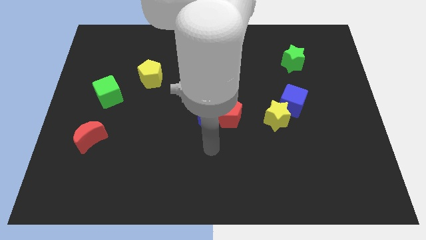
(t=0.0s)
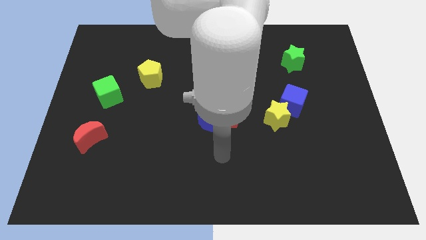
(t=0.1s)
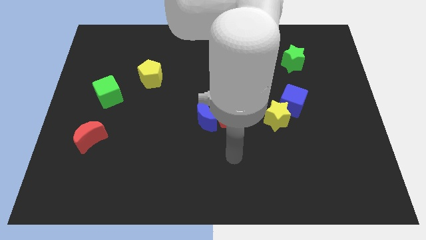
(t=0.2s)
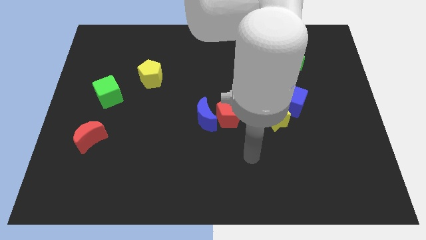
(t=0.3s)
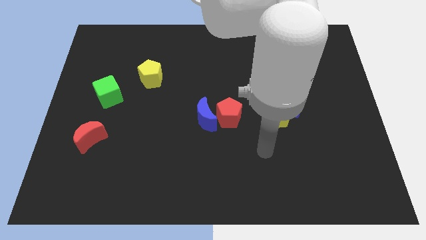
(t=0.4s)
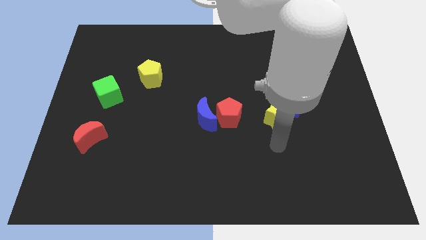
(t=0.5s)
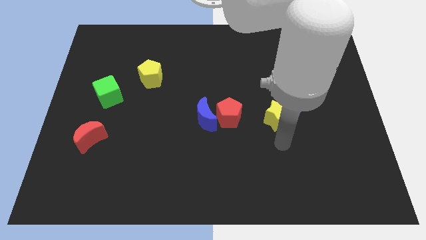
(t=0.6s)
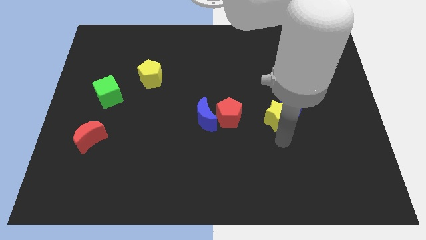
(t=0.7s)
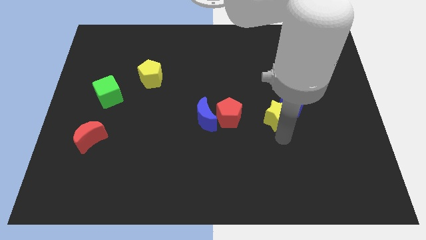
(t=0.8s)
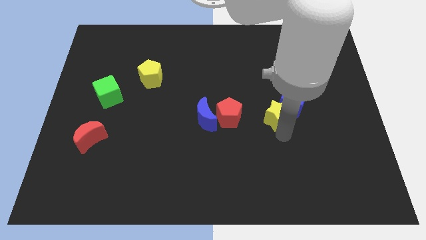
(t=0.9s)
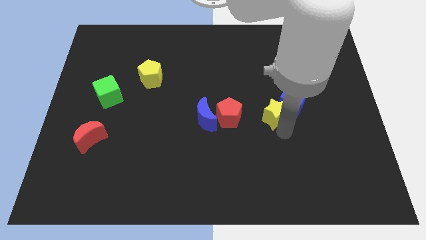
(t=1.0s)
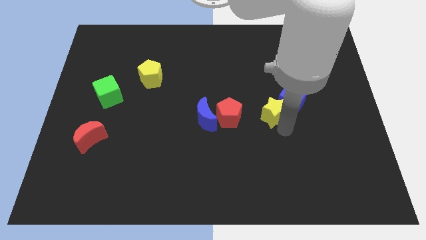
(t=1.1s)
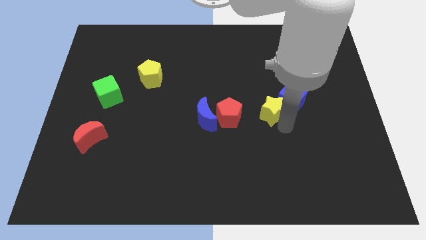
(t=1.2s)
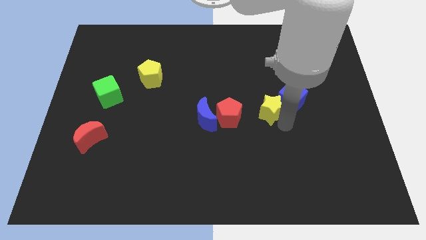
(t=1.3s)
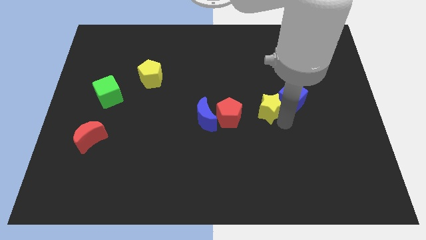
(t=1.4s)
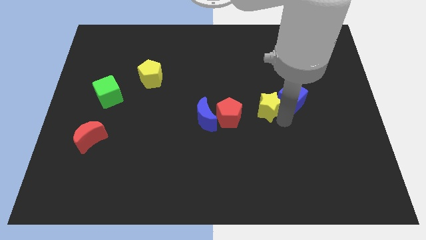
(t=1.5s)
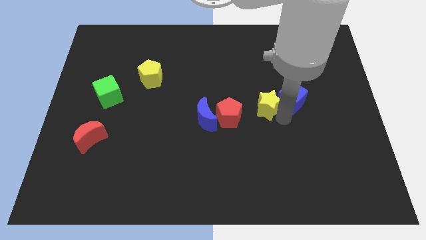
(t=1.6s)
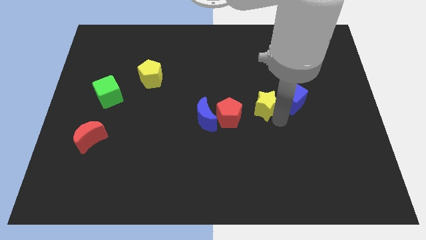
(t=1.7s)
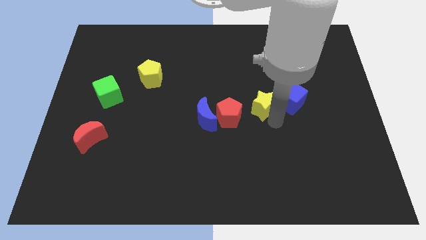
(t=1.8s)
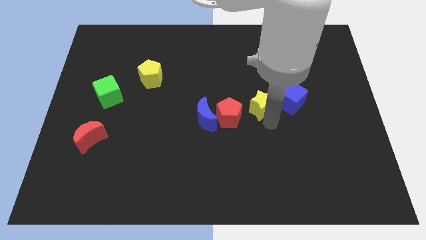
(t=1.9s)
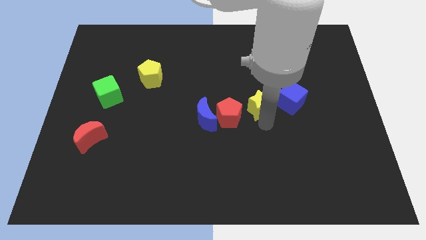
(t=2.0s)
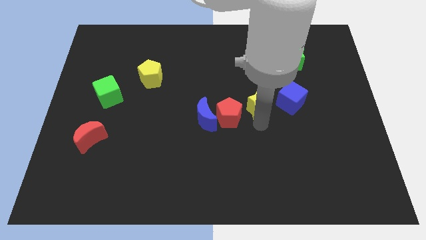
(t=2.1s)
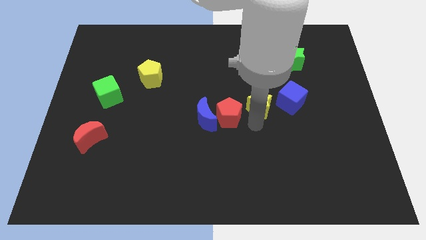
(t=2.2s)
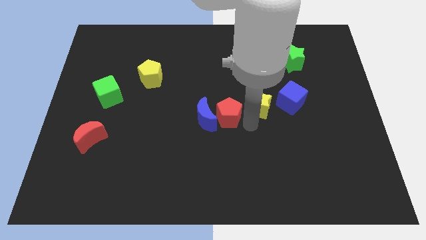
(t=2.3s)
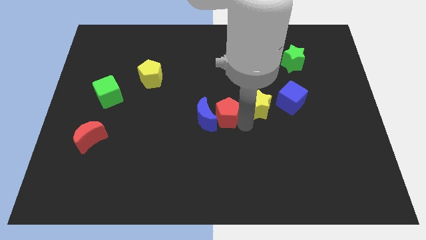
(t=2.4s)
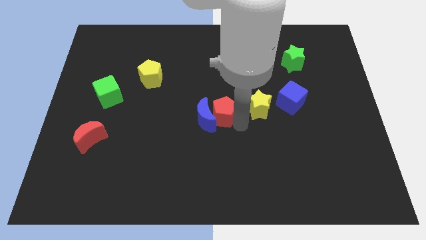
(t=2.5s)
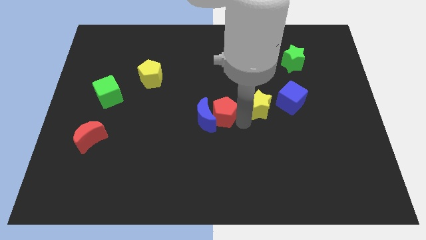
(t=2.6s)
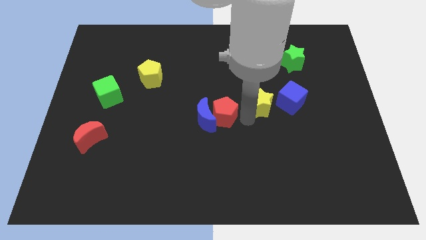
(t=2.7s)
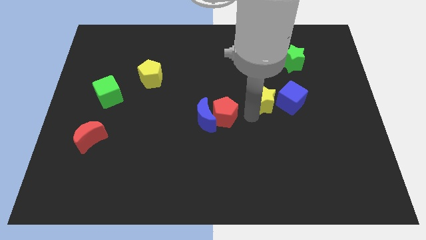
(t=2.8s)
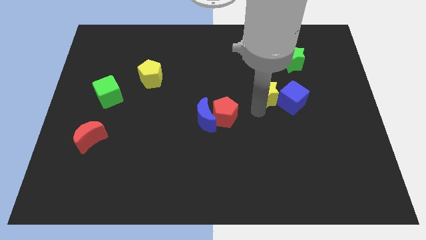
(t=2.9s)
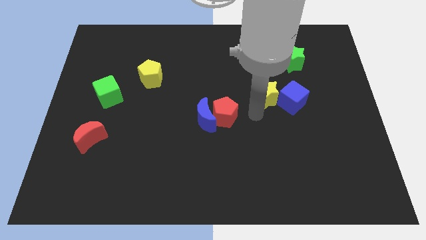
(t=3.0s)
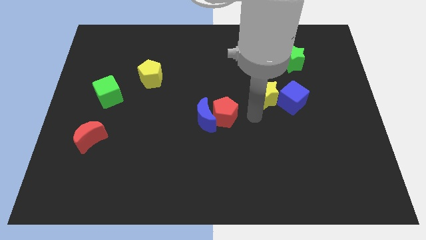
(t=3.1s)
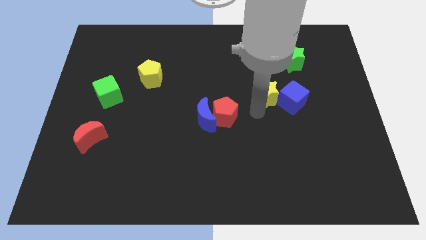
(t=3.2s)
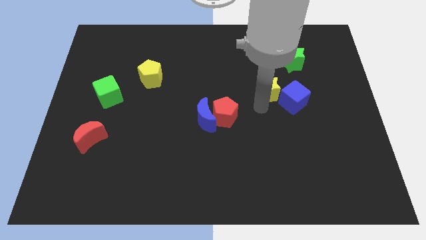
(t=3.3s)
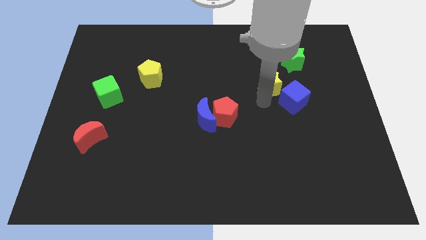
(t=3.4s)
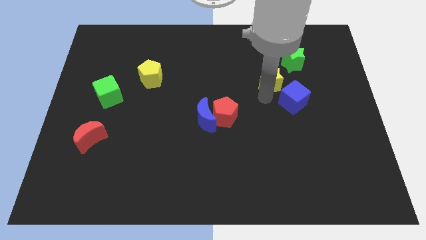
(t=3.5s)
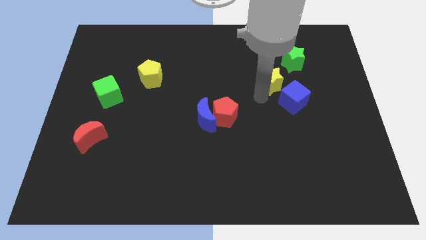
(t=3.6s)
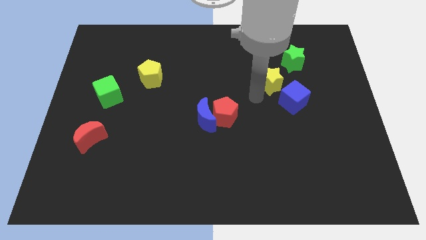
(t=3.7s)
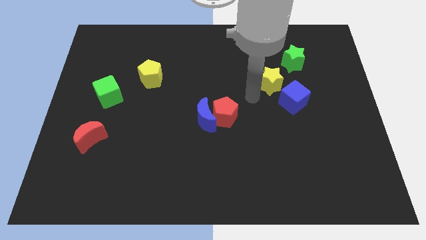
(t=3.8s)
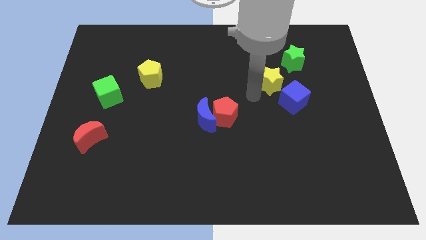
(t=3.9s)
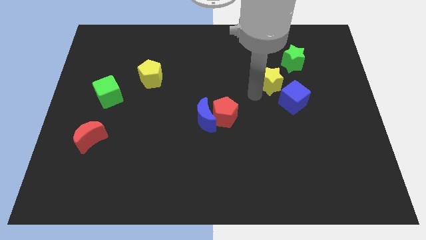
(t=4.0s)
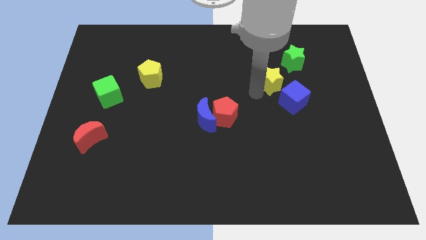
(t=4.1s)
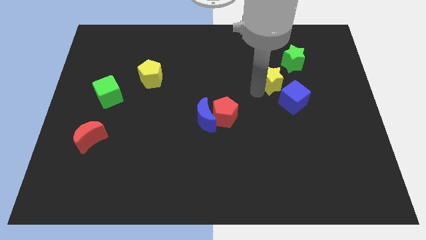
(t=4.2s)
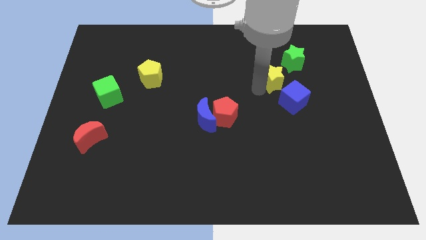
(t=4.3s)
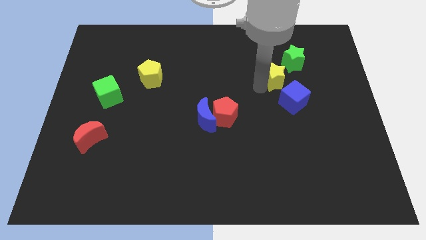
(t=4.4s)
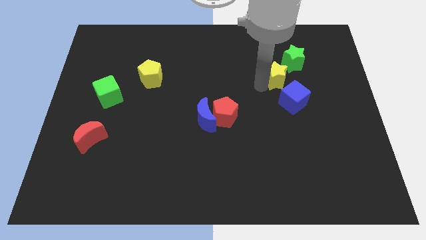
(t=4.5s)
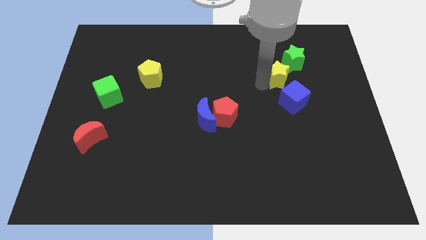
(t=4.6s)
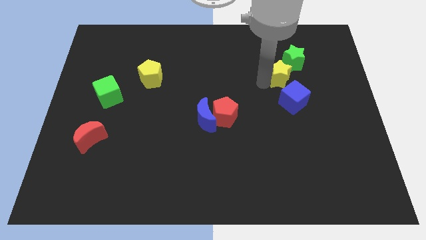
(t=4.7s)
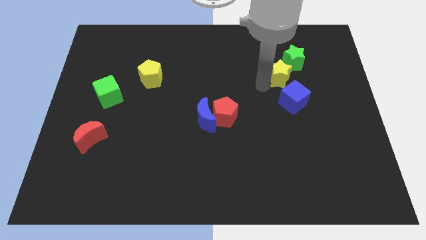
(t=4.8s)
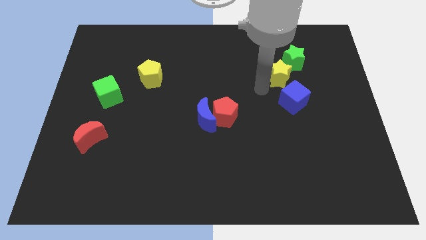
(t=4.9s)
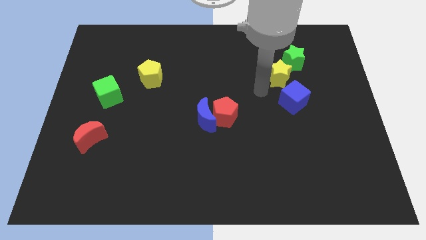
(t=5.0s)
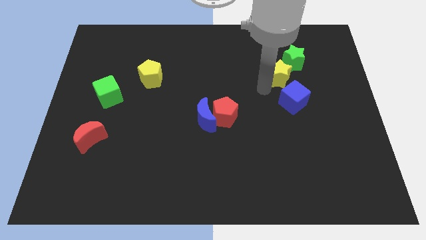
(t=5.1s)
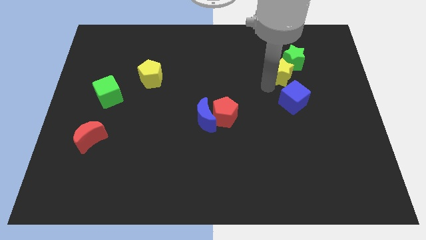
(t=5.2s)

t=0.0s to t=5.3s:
slide the yellow star to the green star

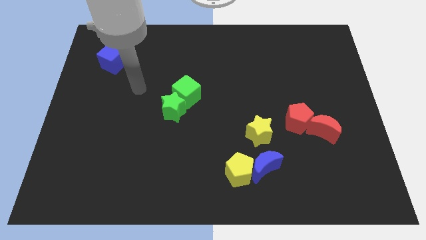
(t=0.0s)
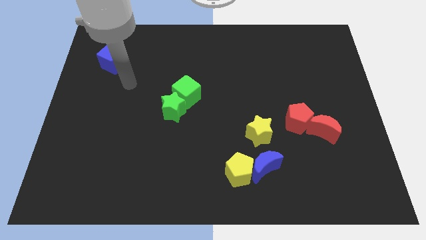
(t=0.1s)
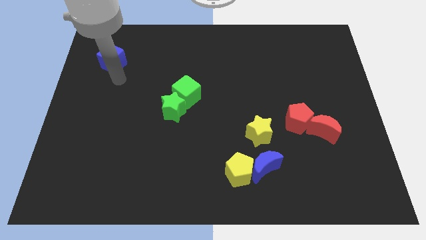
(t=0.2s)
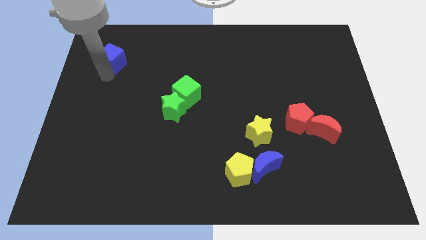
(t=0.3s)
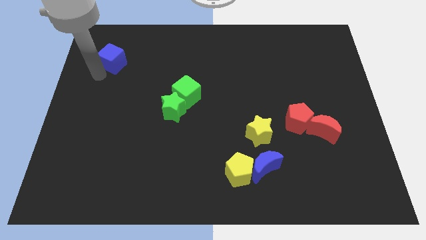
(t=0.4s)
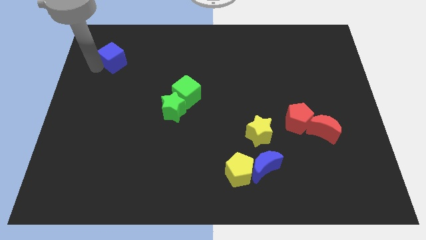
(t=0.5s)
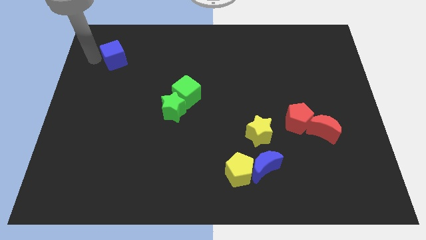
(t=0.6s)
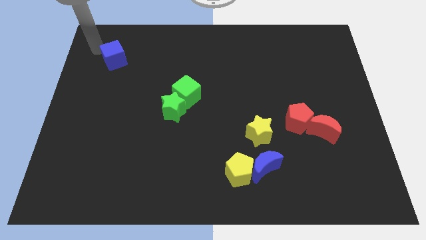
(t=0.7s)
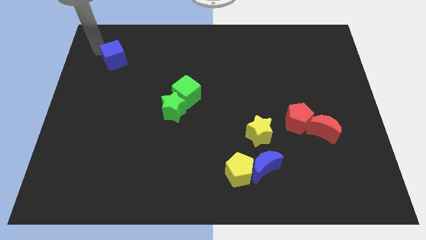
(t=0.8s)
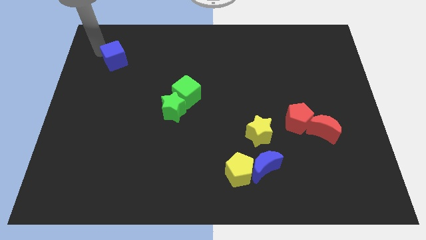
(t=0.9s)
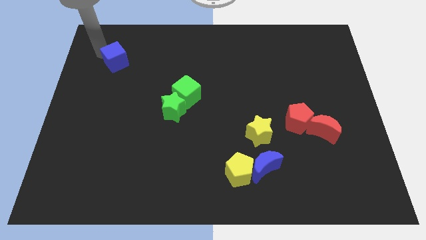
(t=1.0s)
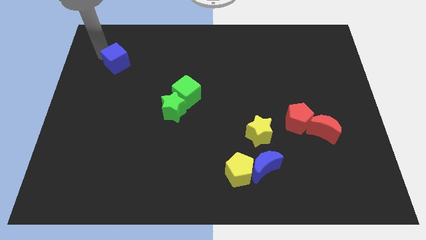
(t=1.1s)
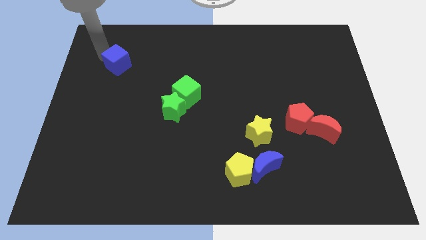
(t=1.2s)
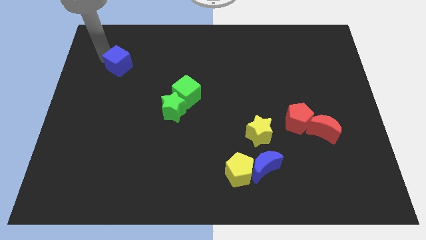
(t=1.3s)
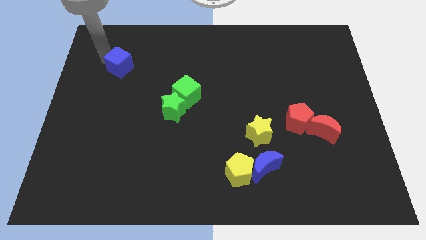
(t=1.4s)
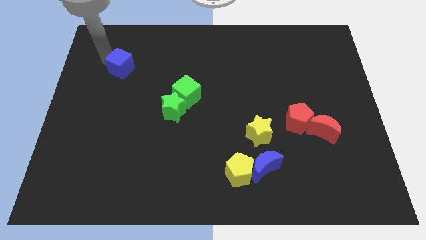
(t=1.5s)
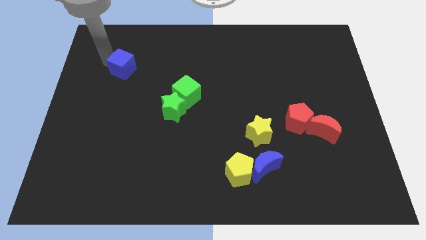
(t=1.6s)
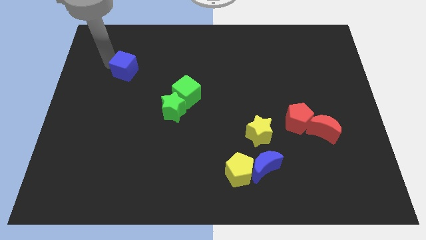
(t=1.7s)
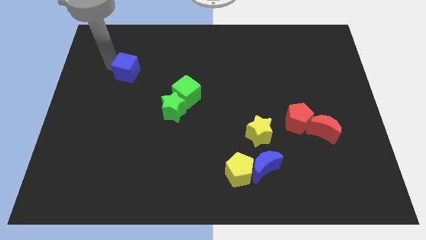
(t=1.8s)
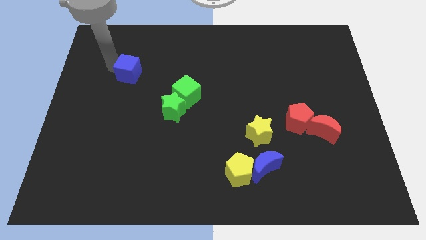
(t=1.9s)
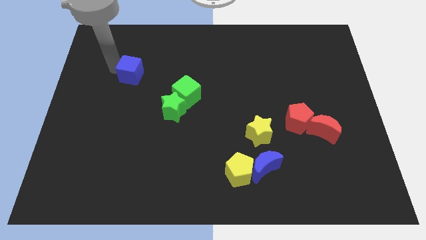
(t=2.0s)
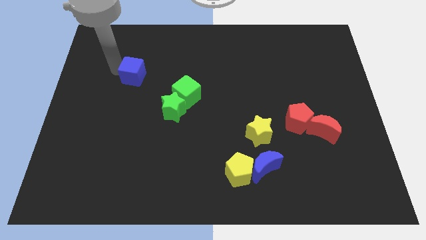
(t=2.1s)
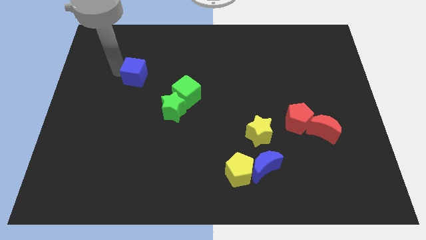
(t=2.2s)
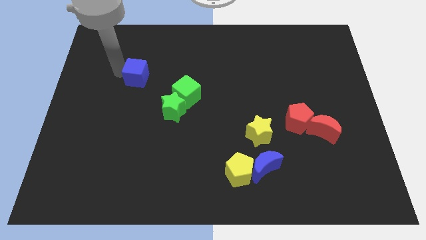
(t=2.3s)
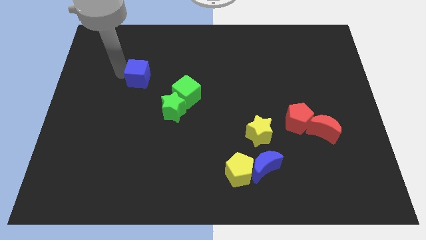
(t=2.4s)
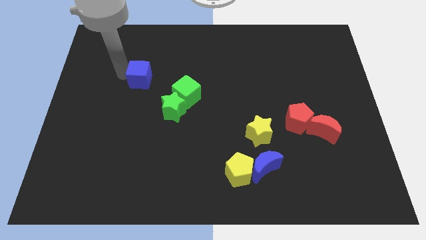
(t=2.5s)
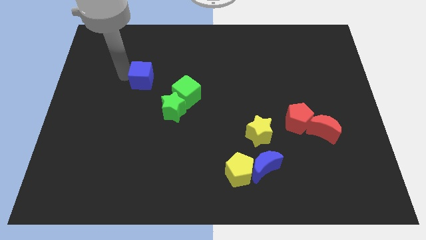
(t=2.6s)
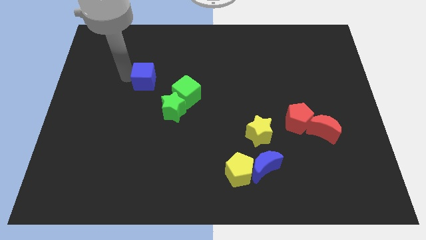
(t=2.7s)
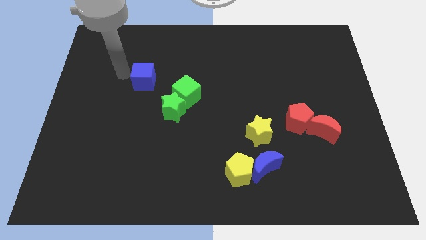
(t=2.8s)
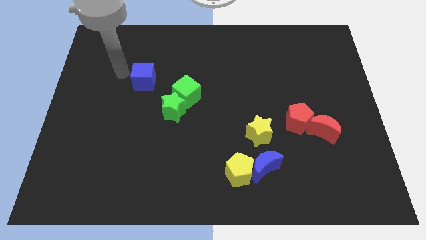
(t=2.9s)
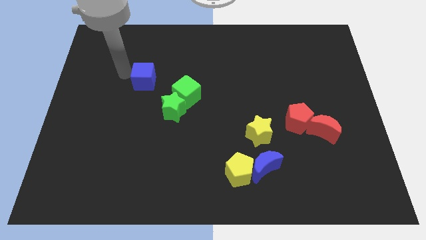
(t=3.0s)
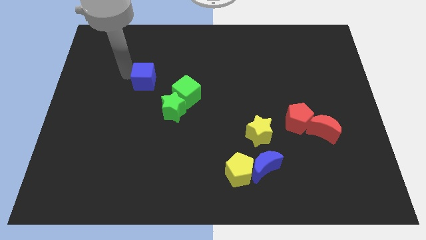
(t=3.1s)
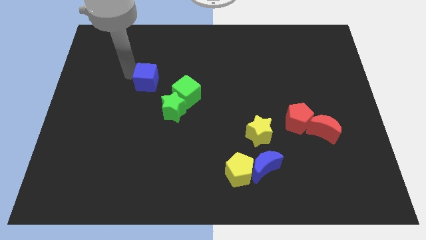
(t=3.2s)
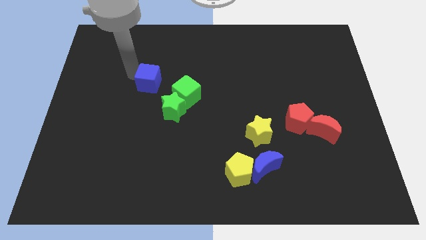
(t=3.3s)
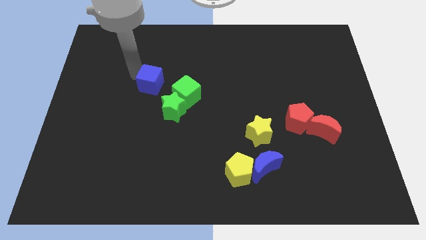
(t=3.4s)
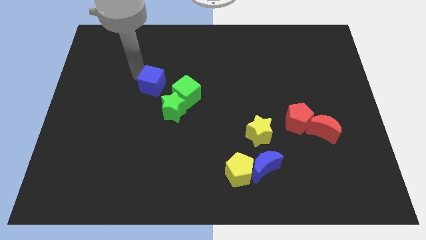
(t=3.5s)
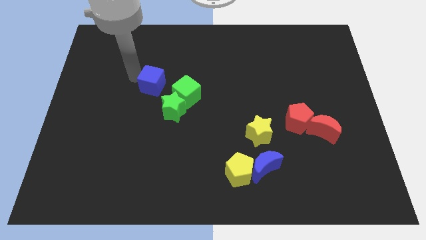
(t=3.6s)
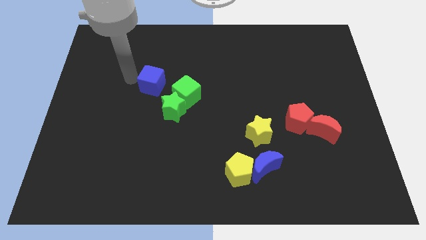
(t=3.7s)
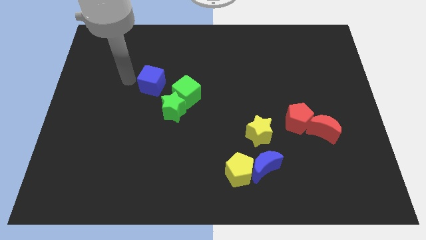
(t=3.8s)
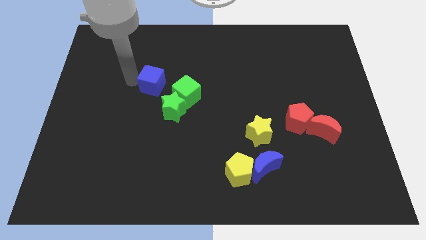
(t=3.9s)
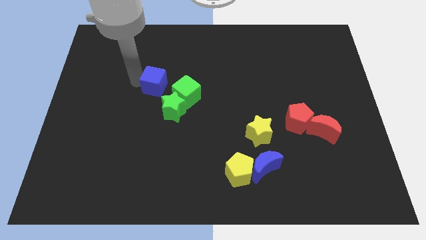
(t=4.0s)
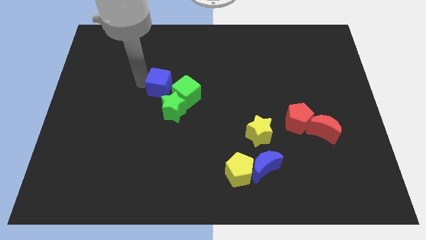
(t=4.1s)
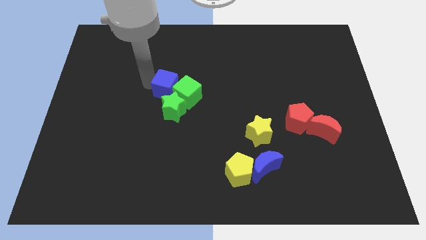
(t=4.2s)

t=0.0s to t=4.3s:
move the blue cube to the green cube
